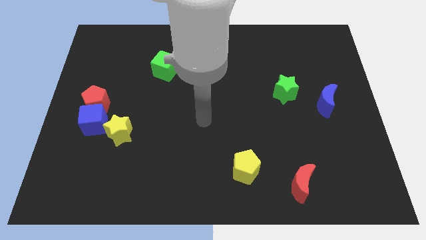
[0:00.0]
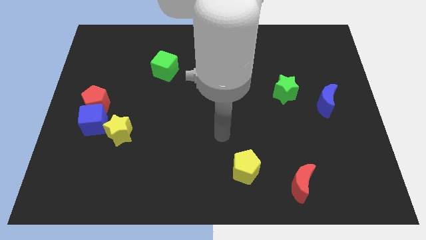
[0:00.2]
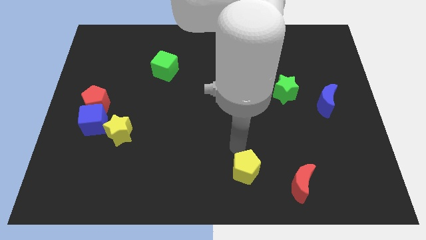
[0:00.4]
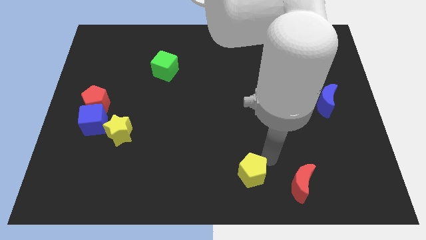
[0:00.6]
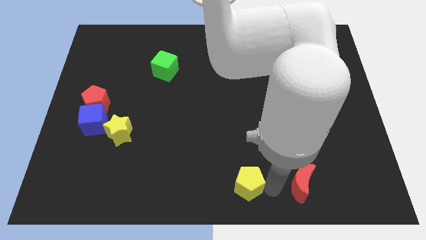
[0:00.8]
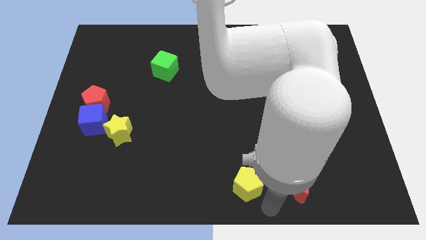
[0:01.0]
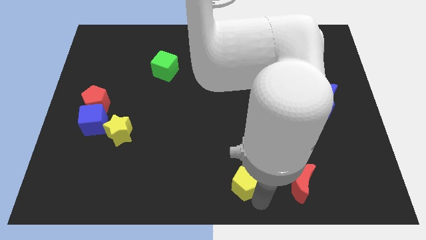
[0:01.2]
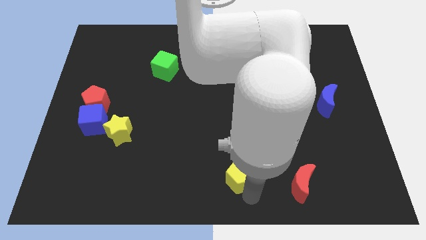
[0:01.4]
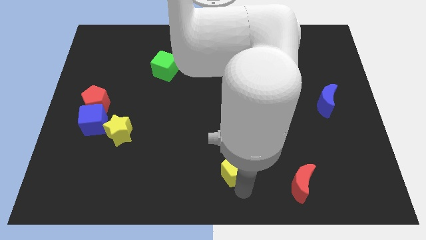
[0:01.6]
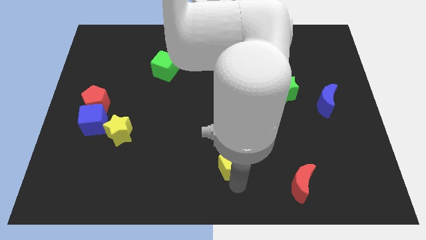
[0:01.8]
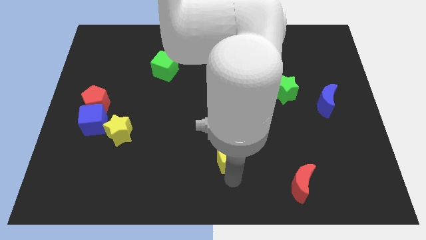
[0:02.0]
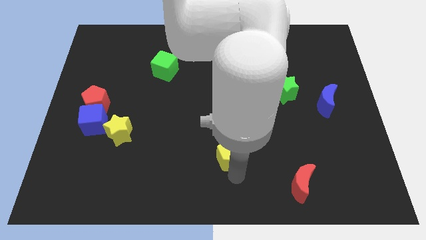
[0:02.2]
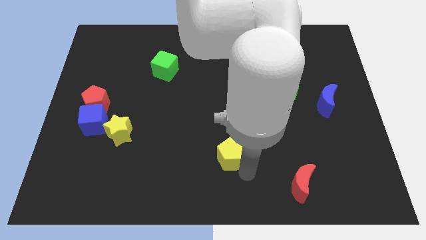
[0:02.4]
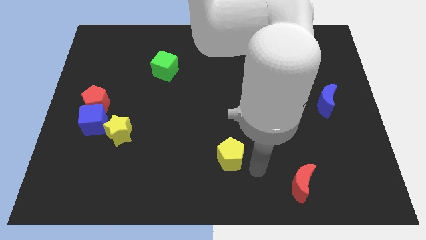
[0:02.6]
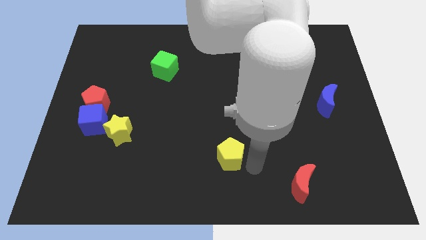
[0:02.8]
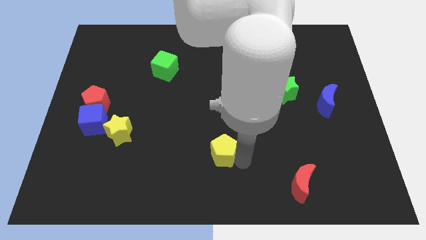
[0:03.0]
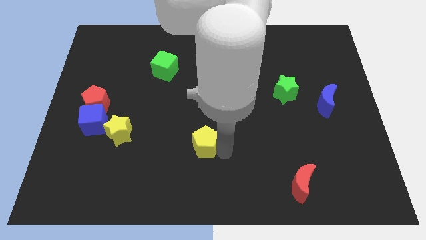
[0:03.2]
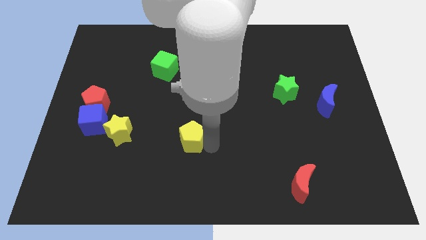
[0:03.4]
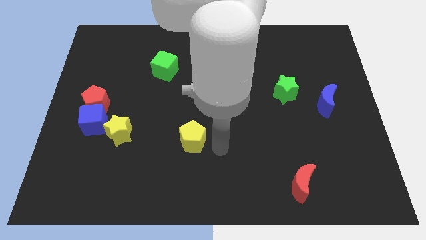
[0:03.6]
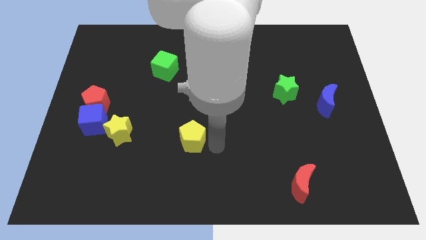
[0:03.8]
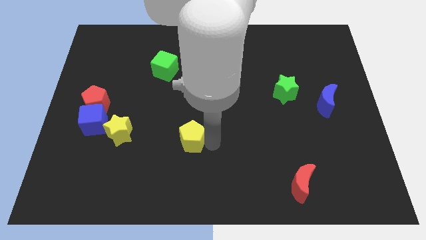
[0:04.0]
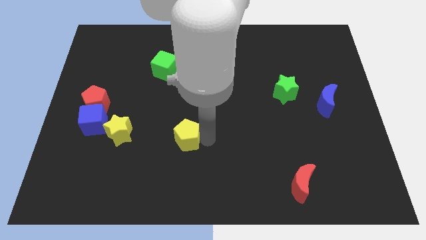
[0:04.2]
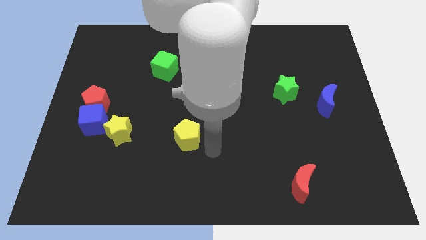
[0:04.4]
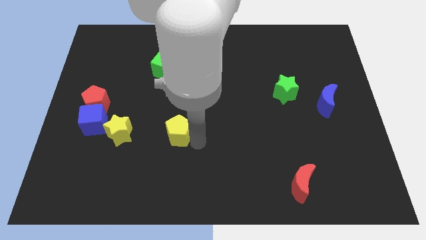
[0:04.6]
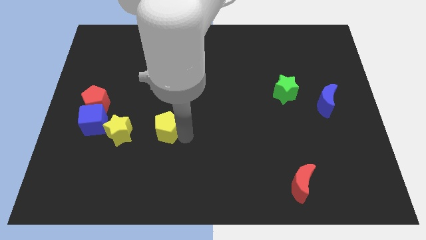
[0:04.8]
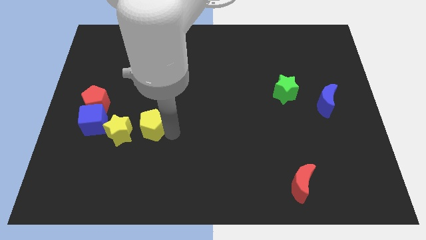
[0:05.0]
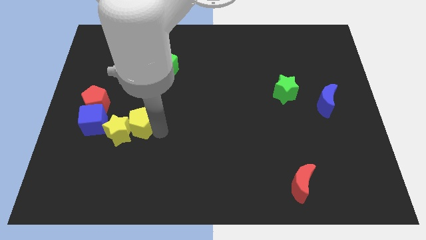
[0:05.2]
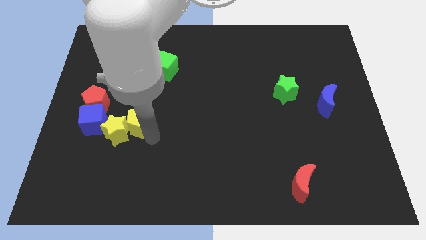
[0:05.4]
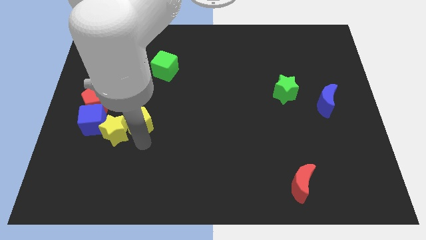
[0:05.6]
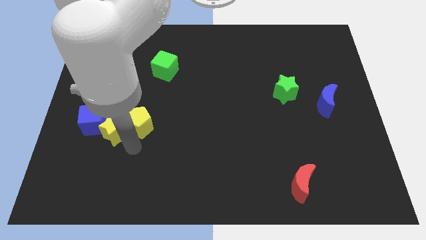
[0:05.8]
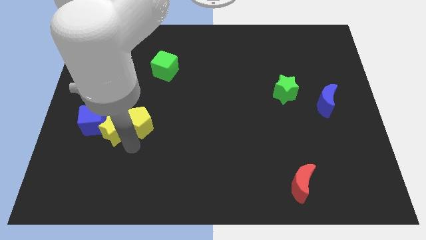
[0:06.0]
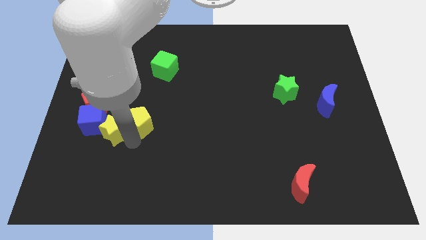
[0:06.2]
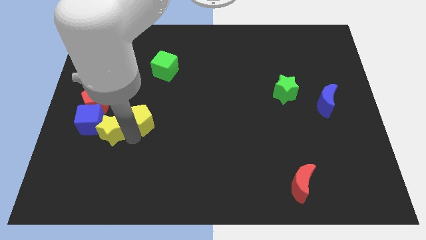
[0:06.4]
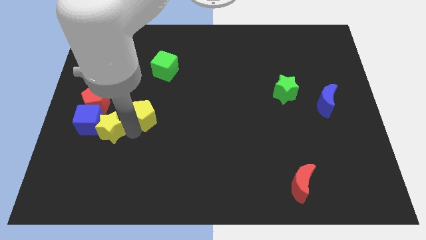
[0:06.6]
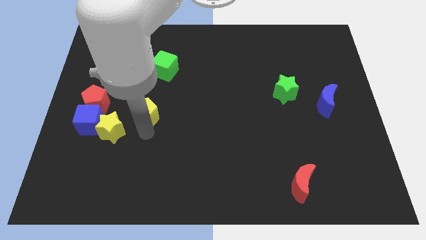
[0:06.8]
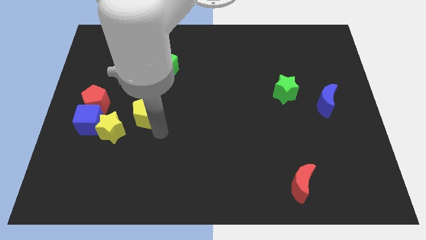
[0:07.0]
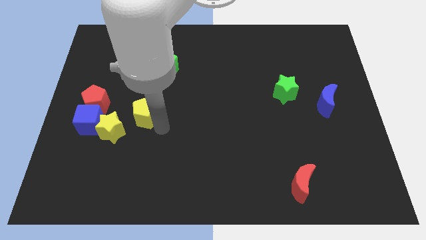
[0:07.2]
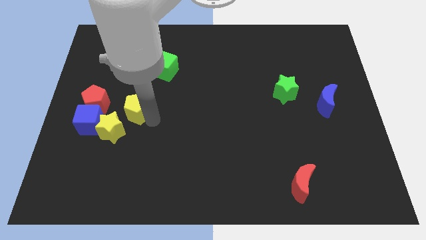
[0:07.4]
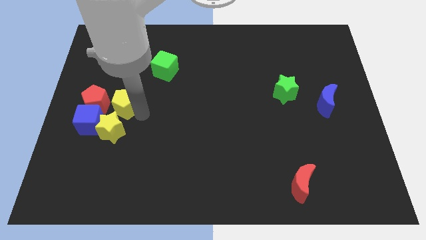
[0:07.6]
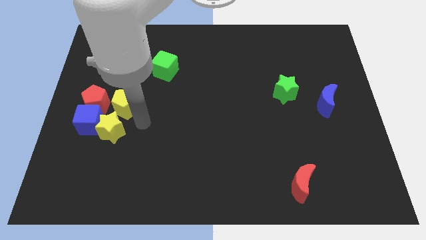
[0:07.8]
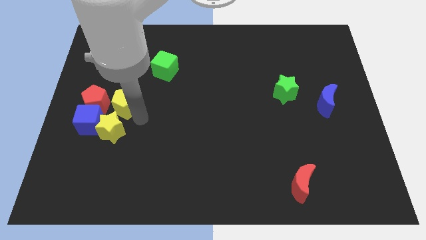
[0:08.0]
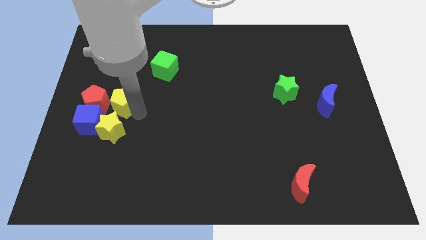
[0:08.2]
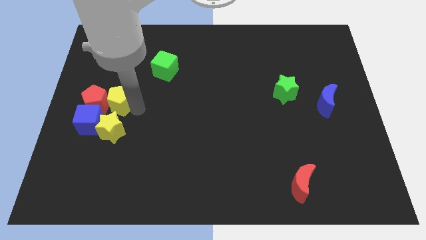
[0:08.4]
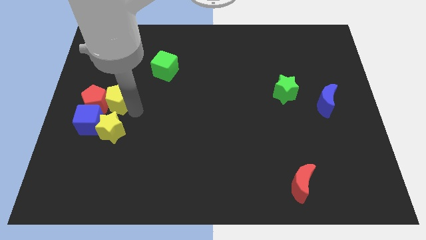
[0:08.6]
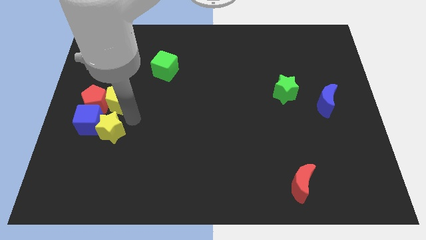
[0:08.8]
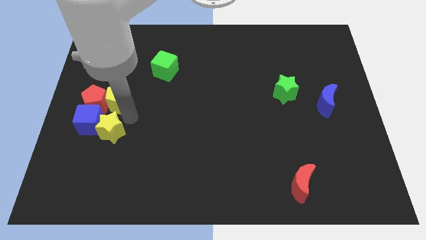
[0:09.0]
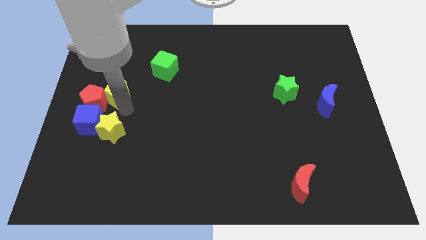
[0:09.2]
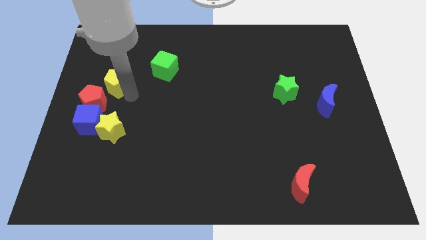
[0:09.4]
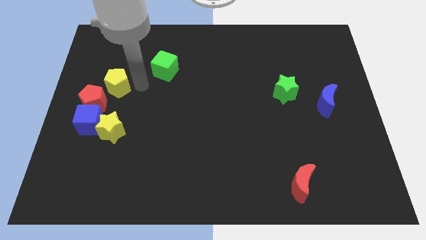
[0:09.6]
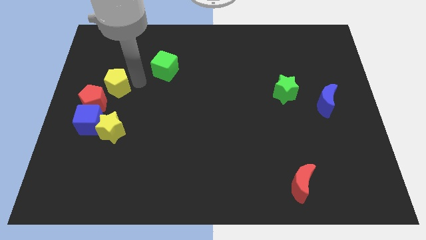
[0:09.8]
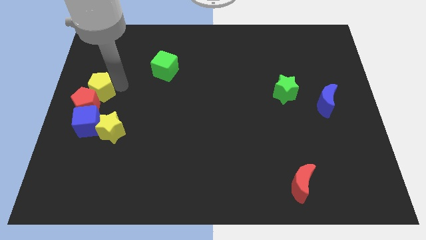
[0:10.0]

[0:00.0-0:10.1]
push the yellow pentagon to the center left
